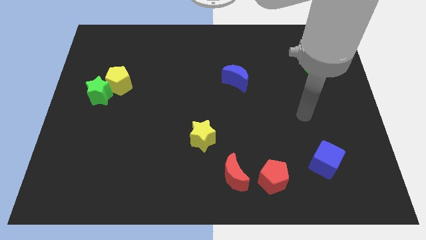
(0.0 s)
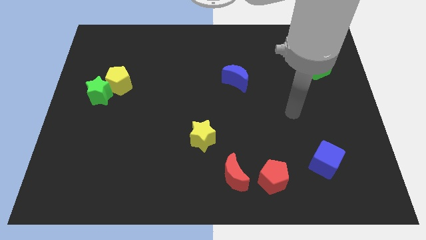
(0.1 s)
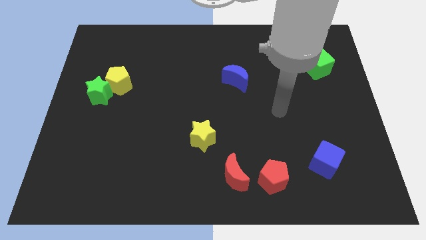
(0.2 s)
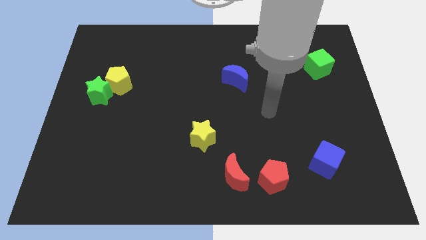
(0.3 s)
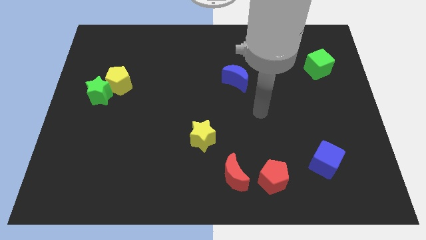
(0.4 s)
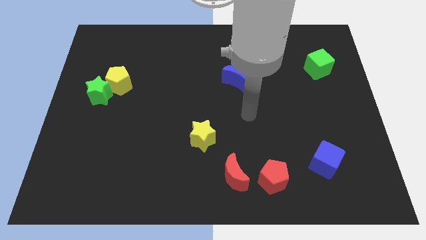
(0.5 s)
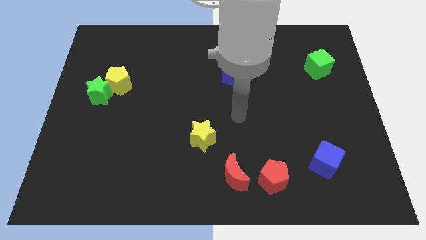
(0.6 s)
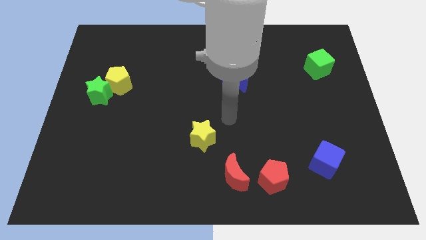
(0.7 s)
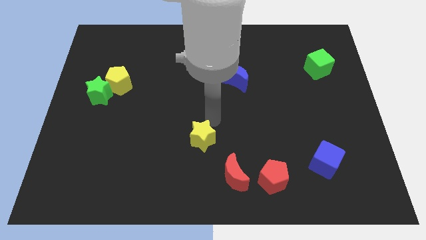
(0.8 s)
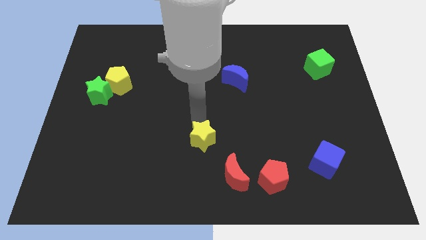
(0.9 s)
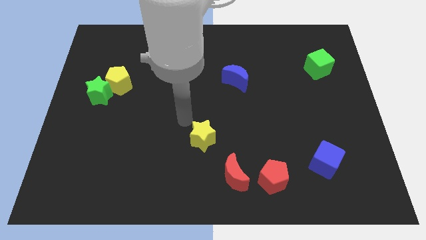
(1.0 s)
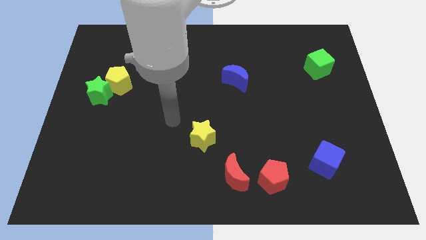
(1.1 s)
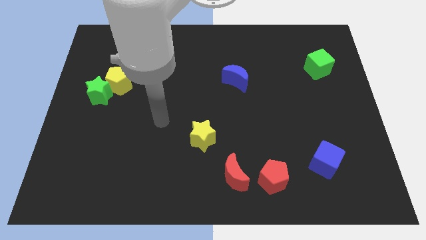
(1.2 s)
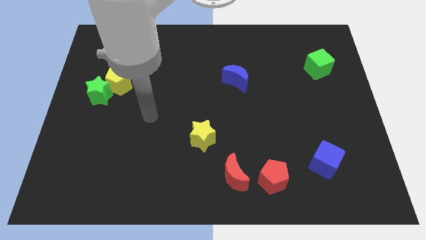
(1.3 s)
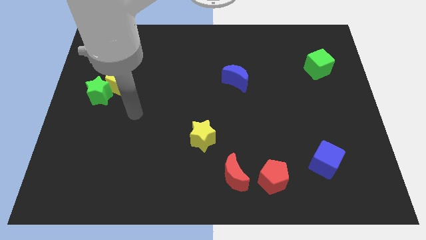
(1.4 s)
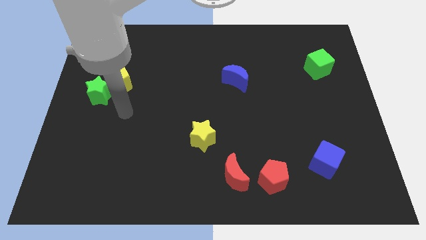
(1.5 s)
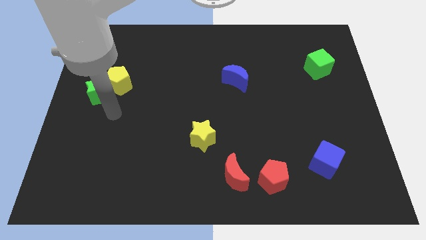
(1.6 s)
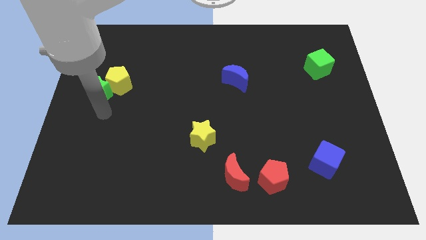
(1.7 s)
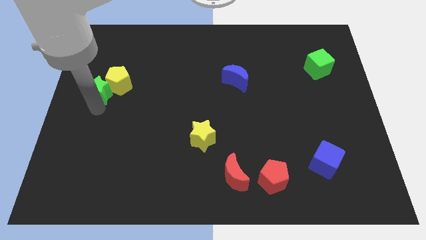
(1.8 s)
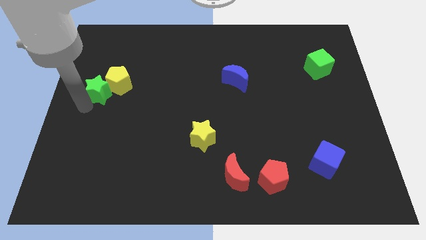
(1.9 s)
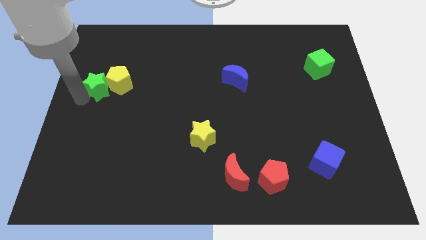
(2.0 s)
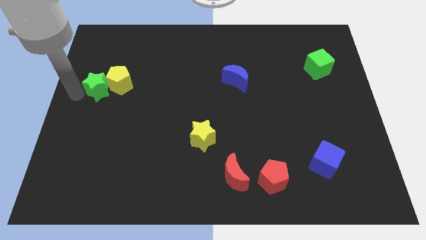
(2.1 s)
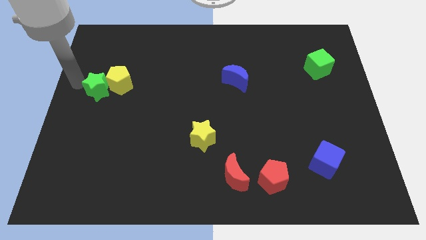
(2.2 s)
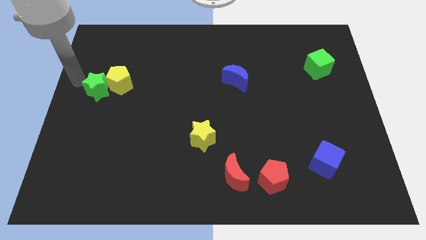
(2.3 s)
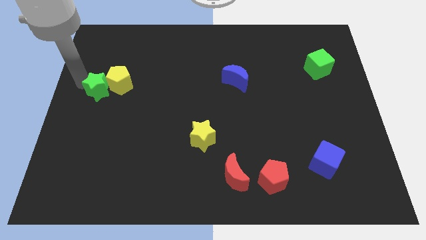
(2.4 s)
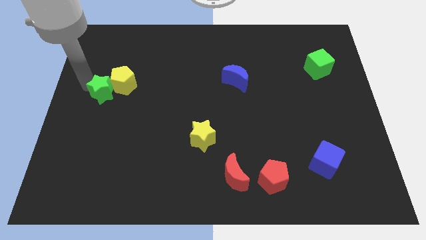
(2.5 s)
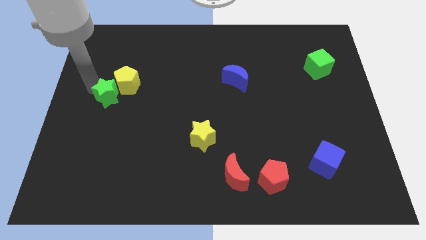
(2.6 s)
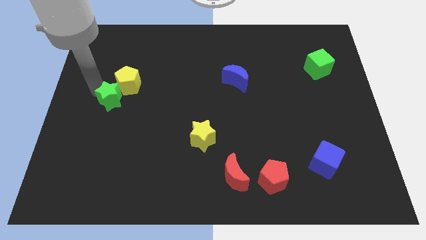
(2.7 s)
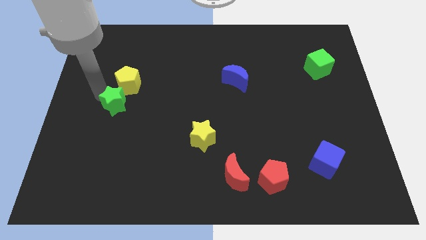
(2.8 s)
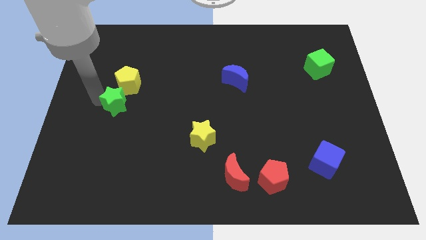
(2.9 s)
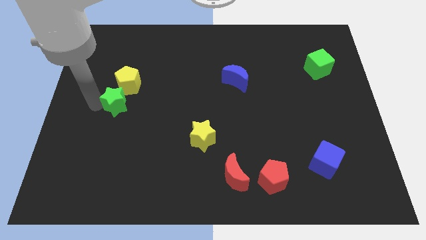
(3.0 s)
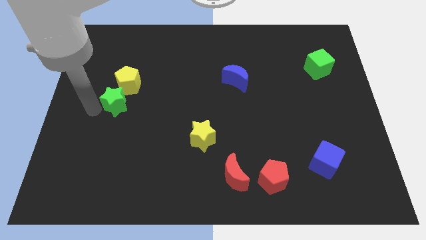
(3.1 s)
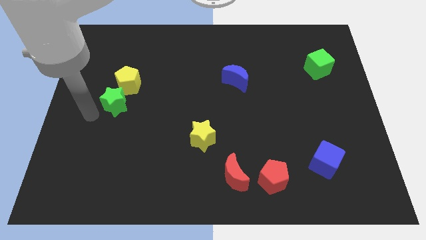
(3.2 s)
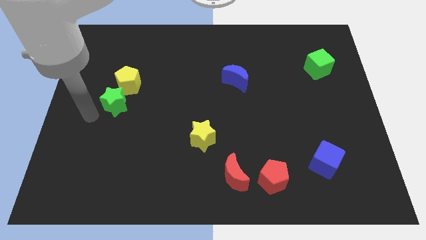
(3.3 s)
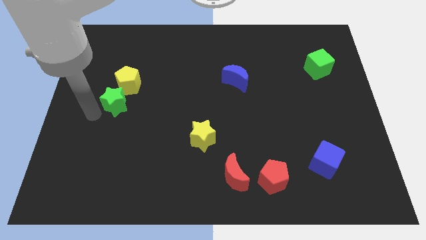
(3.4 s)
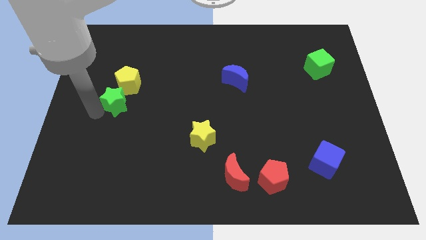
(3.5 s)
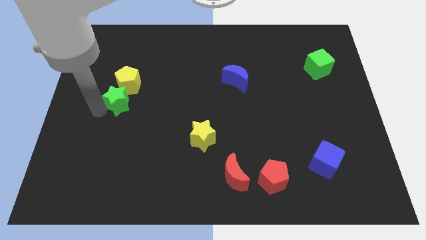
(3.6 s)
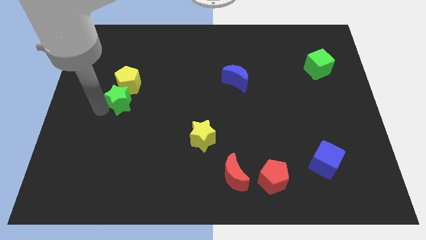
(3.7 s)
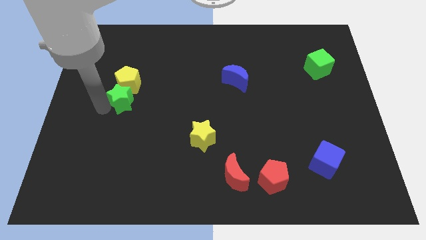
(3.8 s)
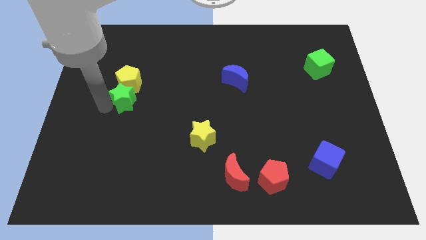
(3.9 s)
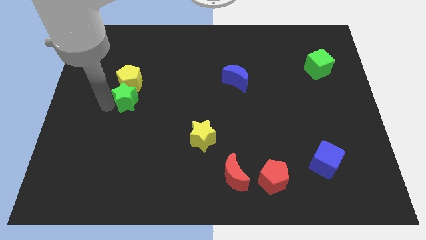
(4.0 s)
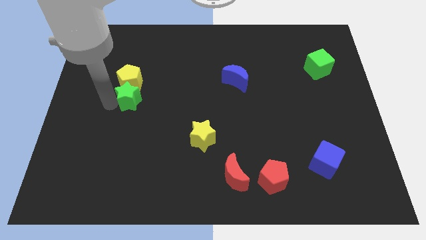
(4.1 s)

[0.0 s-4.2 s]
slightly push the green star right

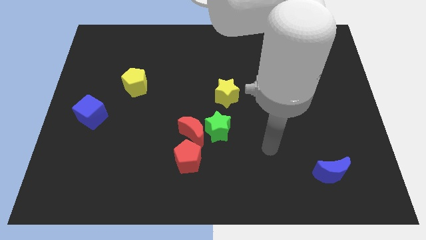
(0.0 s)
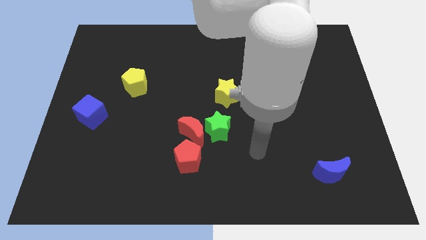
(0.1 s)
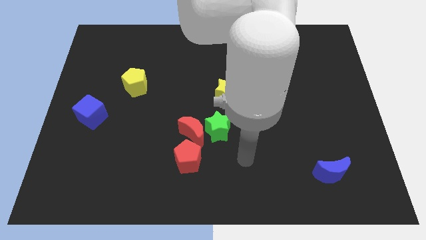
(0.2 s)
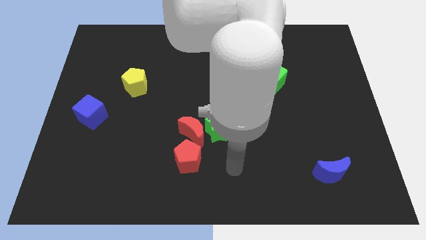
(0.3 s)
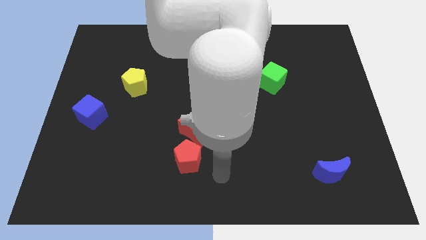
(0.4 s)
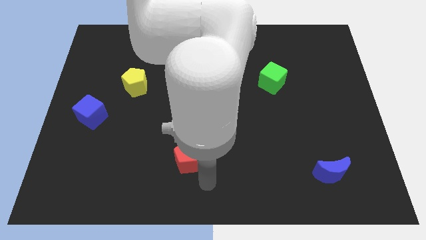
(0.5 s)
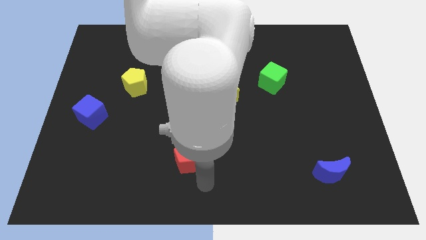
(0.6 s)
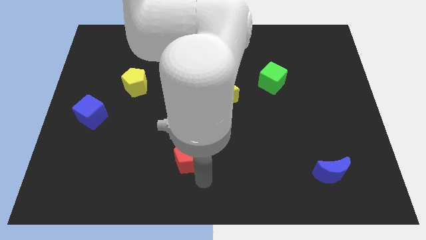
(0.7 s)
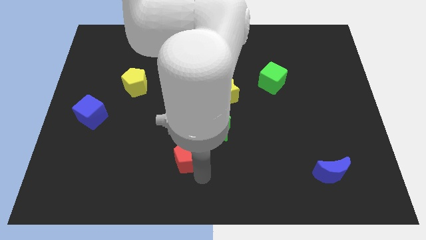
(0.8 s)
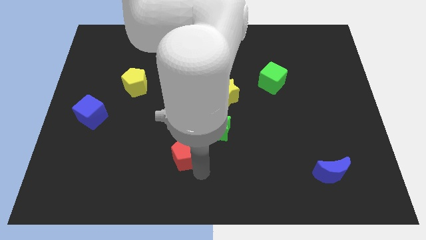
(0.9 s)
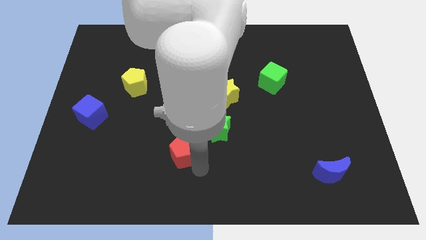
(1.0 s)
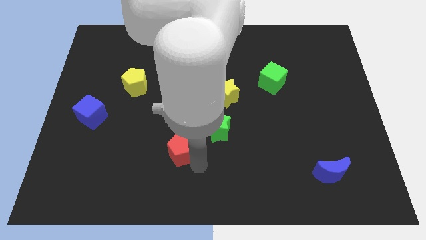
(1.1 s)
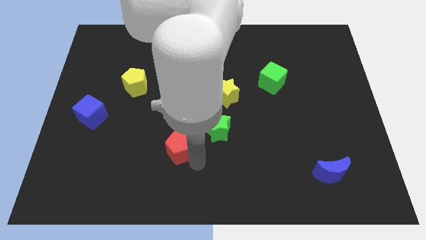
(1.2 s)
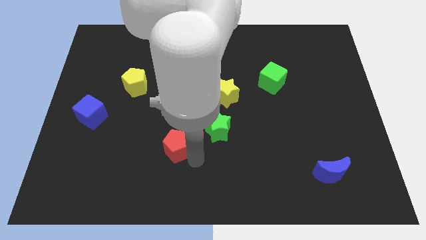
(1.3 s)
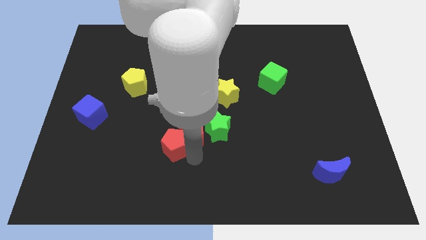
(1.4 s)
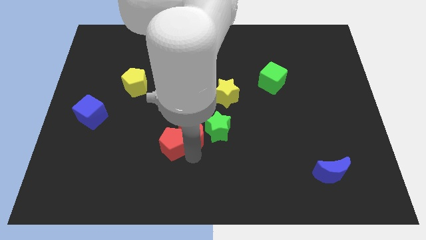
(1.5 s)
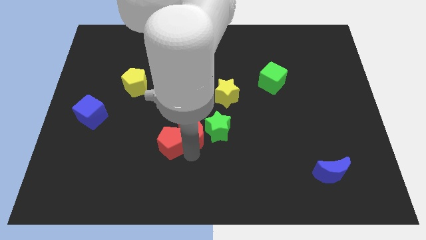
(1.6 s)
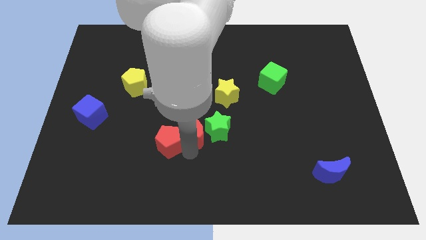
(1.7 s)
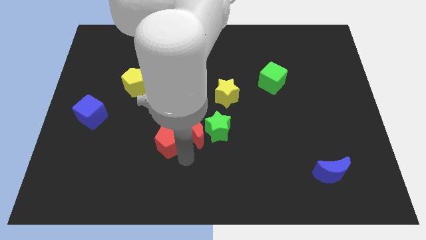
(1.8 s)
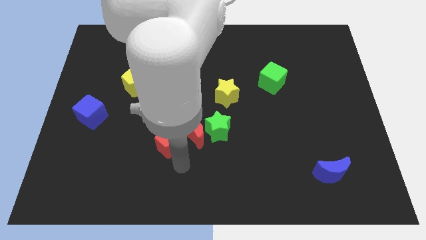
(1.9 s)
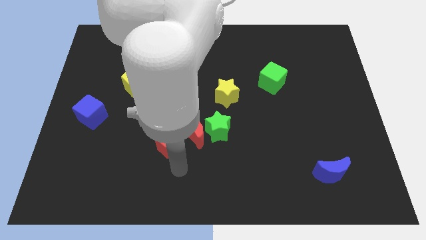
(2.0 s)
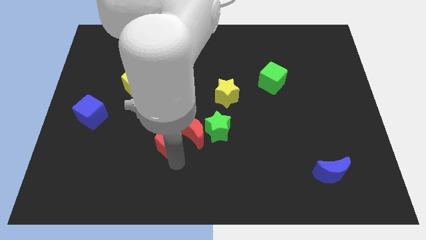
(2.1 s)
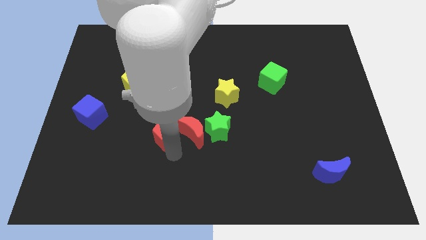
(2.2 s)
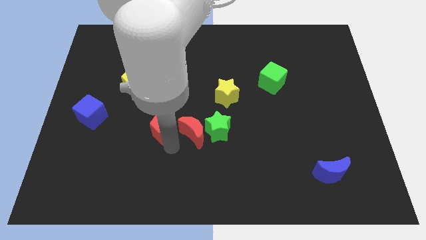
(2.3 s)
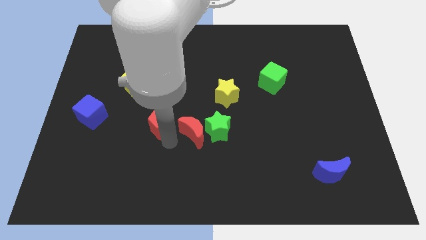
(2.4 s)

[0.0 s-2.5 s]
slide the red pentagon a little up

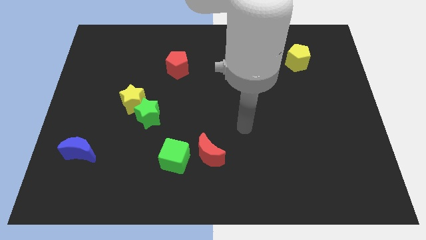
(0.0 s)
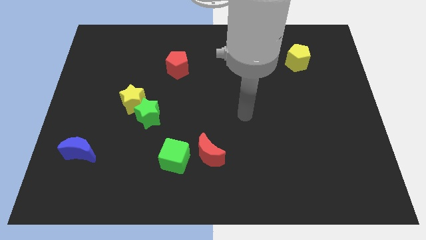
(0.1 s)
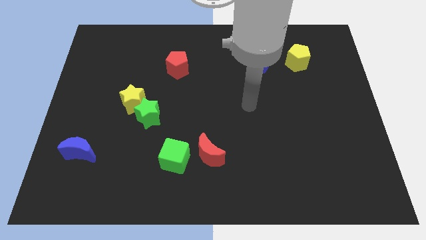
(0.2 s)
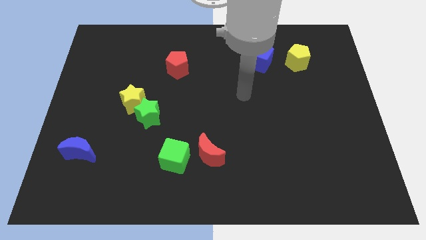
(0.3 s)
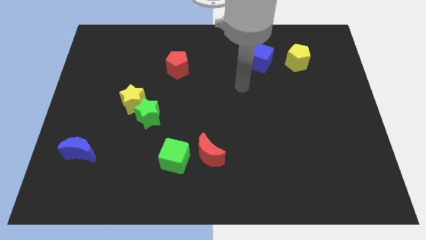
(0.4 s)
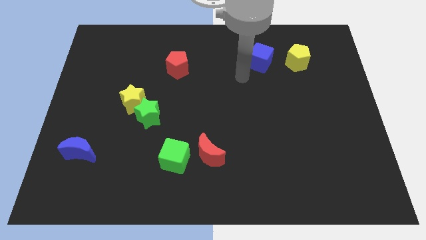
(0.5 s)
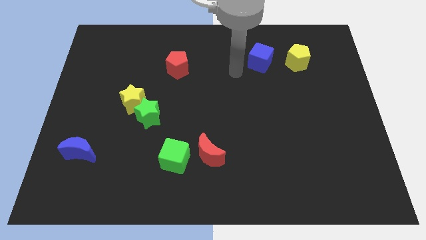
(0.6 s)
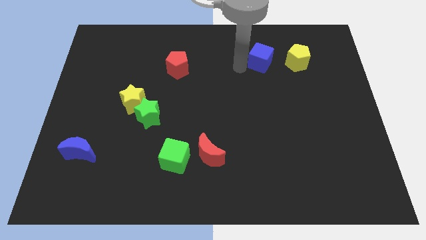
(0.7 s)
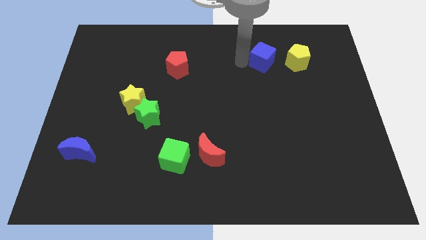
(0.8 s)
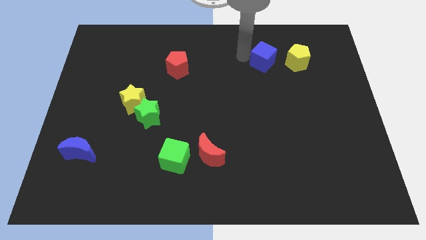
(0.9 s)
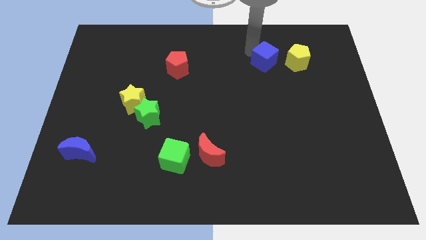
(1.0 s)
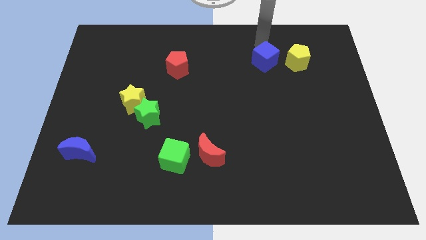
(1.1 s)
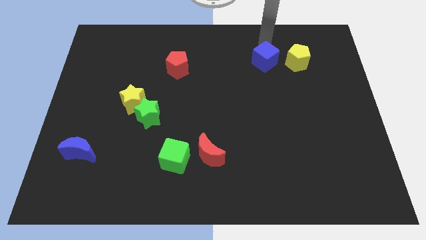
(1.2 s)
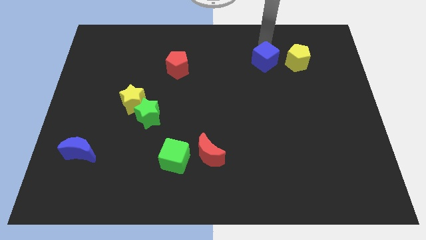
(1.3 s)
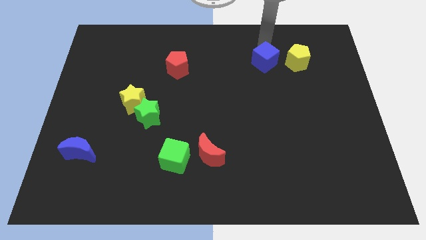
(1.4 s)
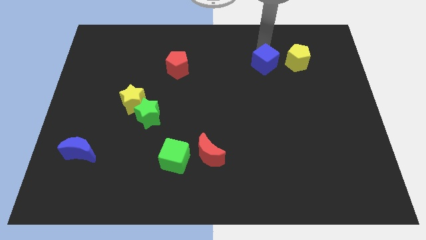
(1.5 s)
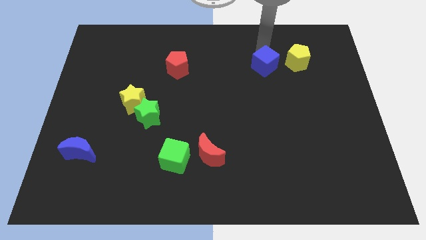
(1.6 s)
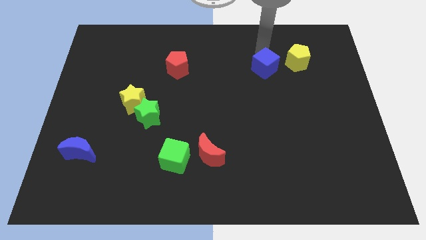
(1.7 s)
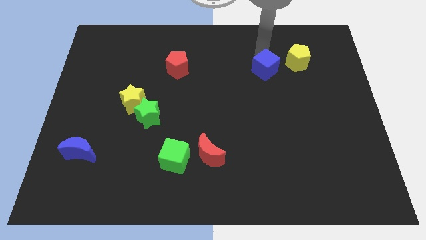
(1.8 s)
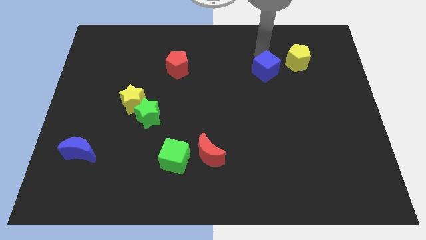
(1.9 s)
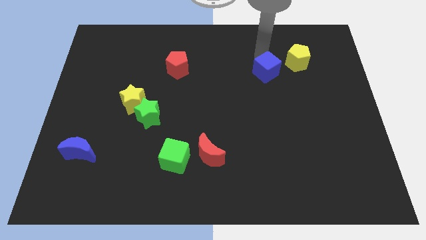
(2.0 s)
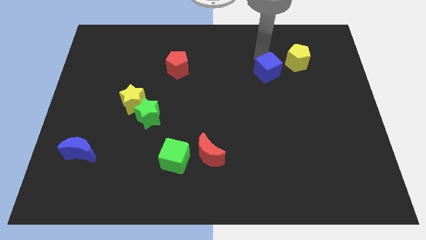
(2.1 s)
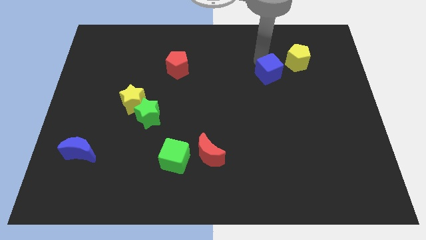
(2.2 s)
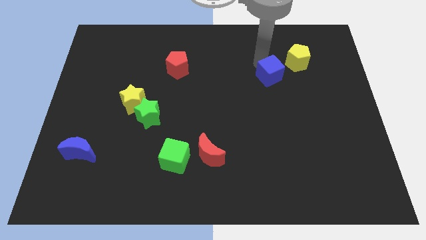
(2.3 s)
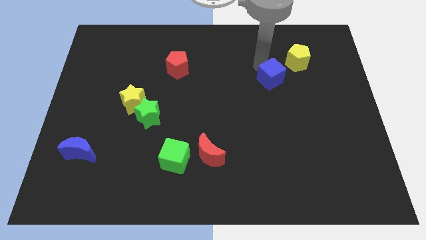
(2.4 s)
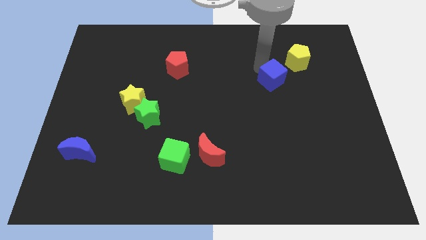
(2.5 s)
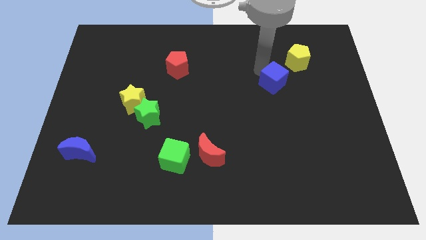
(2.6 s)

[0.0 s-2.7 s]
push the blue cube down slightly
